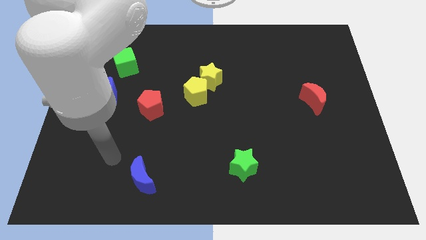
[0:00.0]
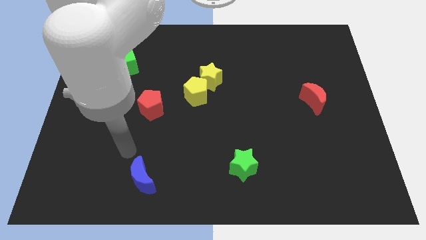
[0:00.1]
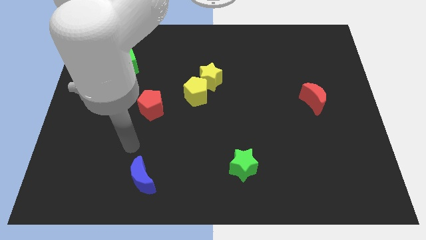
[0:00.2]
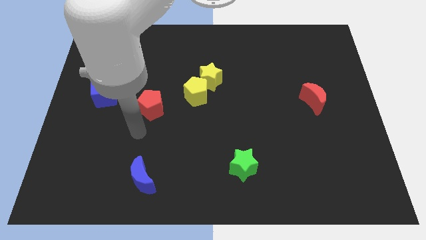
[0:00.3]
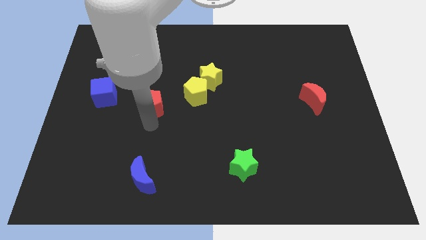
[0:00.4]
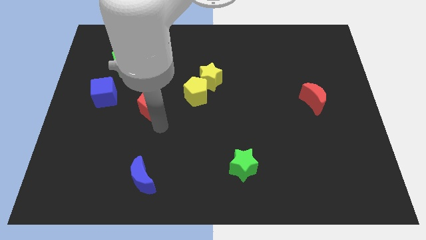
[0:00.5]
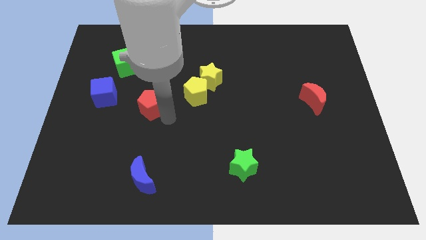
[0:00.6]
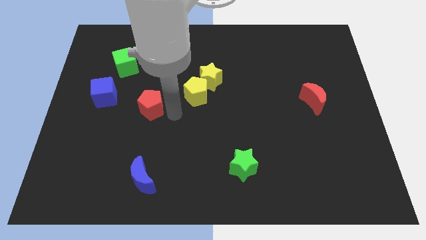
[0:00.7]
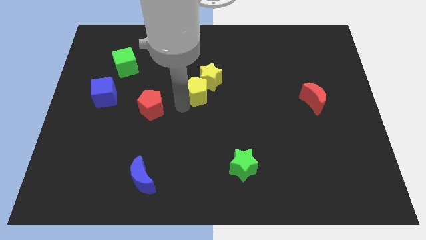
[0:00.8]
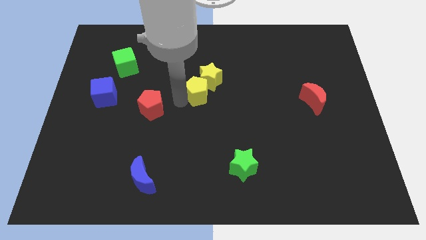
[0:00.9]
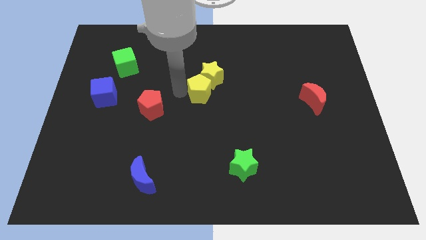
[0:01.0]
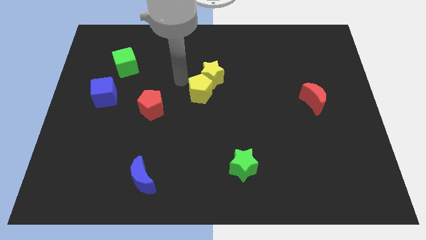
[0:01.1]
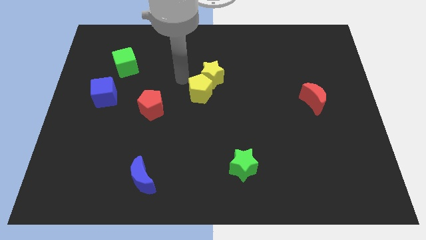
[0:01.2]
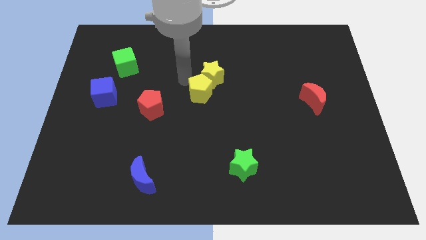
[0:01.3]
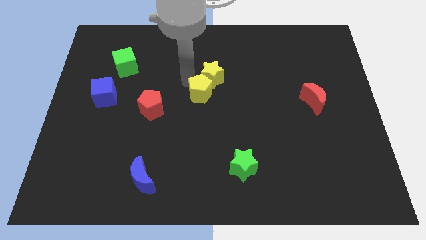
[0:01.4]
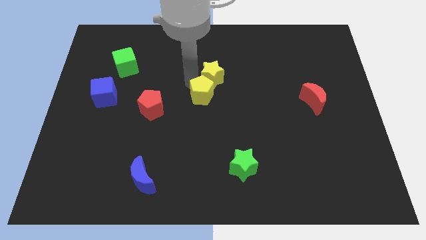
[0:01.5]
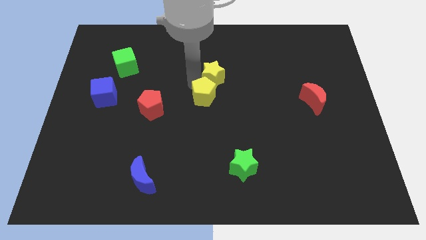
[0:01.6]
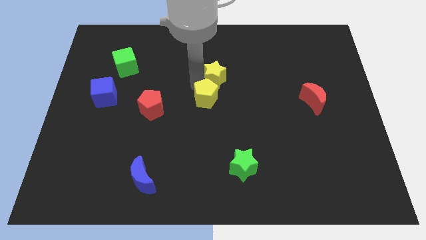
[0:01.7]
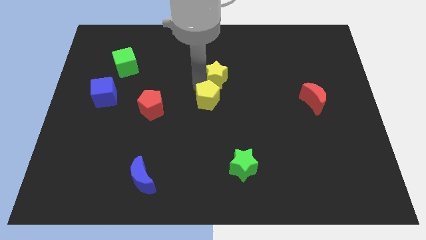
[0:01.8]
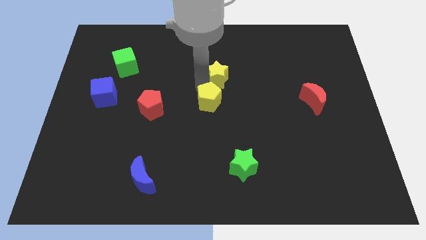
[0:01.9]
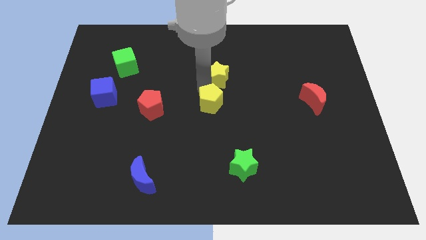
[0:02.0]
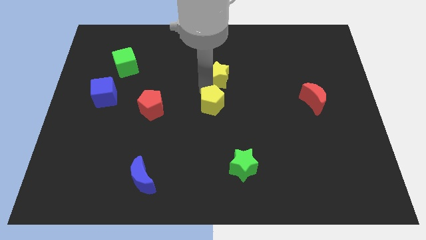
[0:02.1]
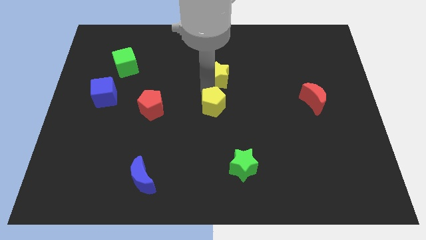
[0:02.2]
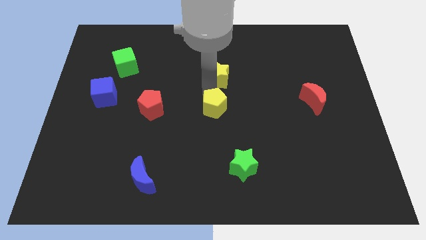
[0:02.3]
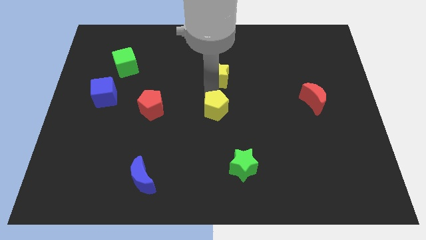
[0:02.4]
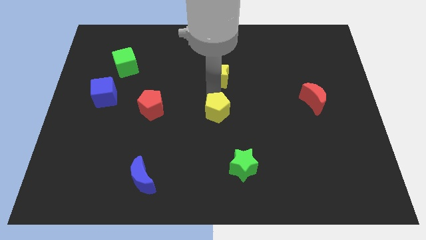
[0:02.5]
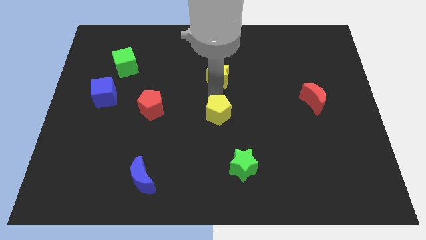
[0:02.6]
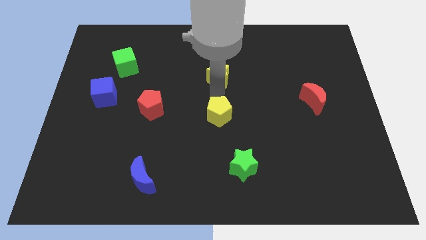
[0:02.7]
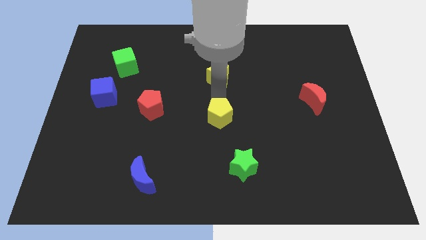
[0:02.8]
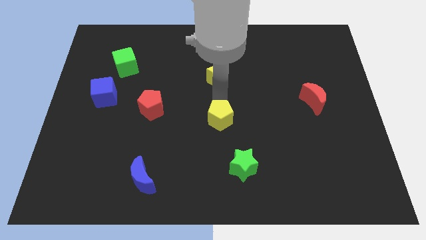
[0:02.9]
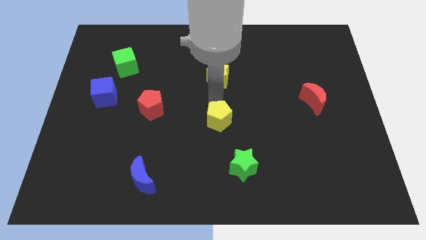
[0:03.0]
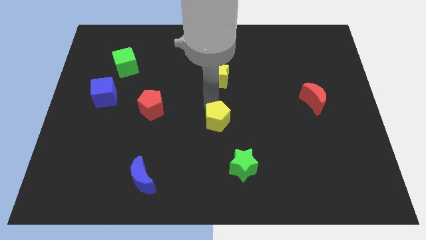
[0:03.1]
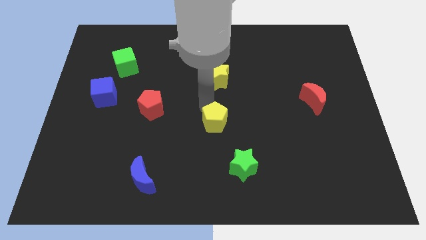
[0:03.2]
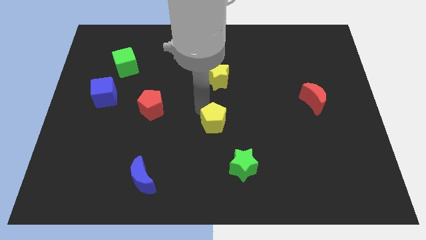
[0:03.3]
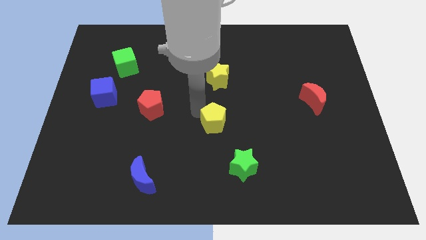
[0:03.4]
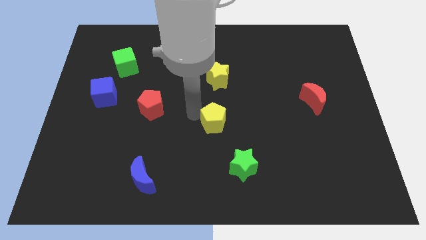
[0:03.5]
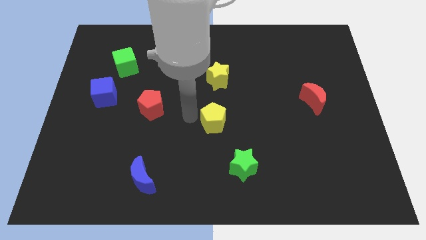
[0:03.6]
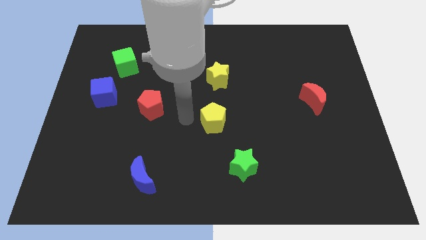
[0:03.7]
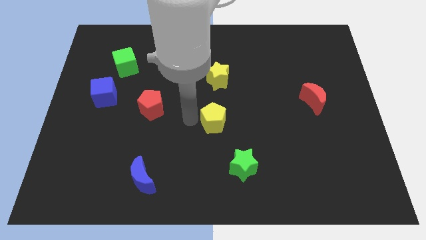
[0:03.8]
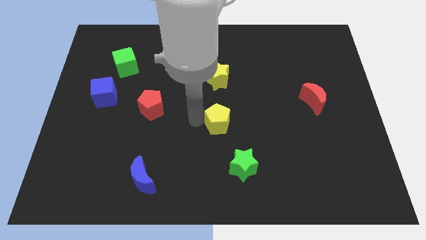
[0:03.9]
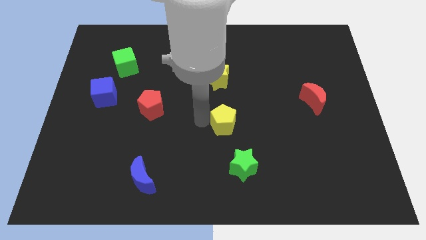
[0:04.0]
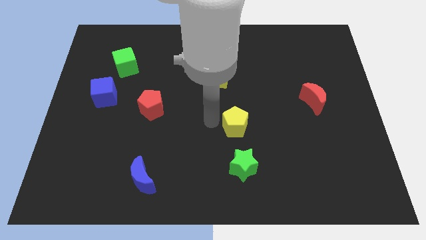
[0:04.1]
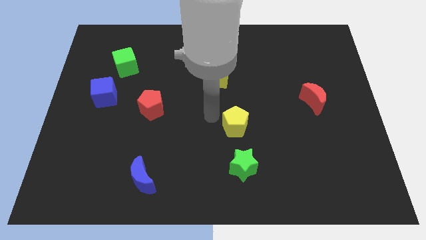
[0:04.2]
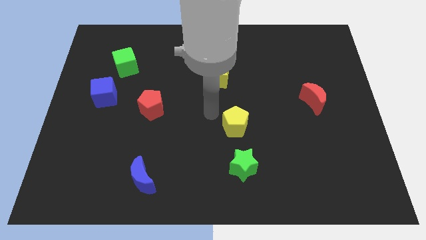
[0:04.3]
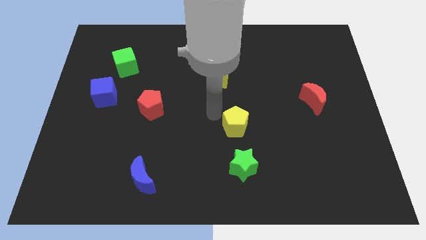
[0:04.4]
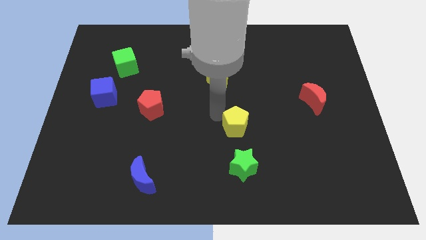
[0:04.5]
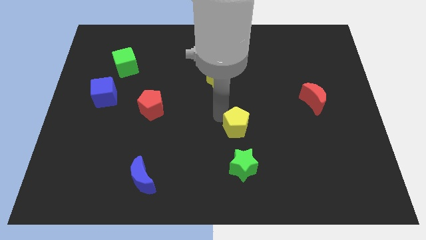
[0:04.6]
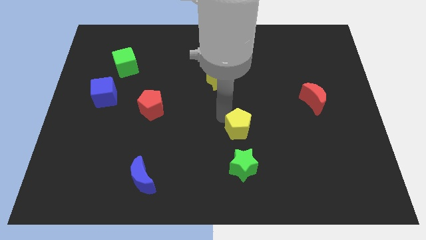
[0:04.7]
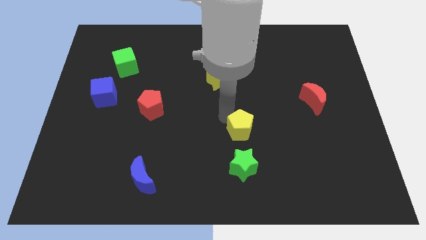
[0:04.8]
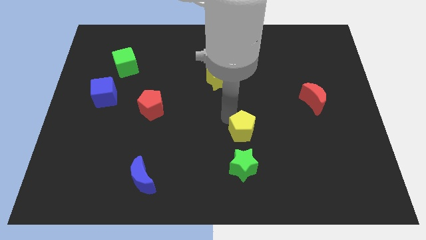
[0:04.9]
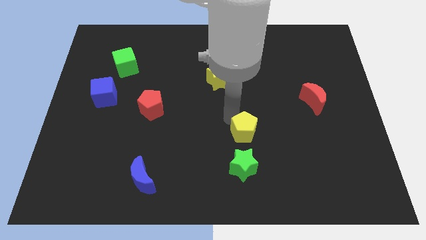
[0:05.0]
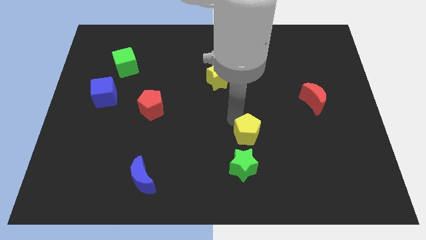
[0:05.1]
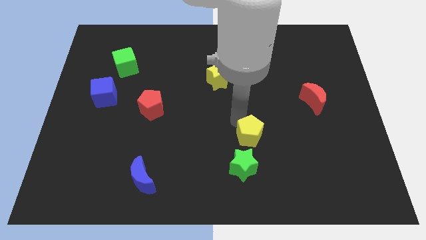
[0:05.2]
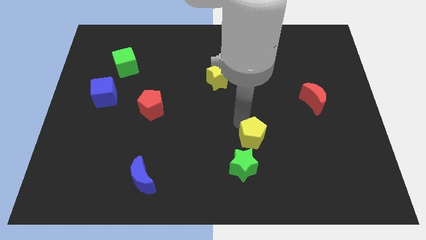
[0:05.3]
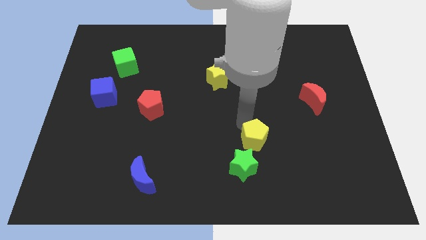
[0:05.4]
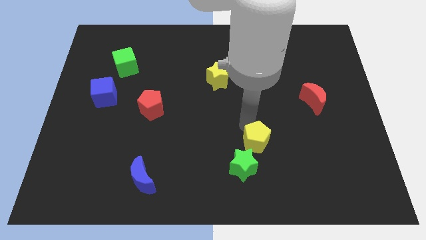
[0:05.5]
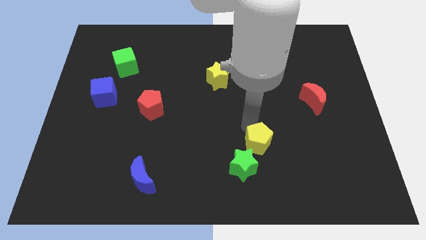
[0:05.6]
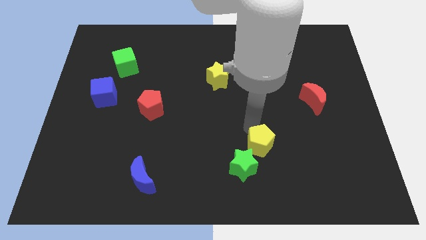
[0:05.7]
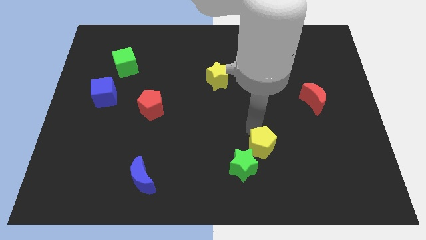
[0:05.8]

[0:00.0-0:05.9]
move the yellow pentagon right of the green star

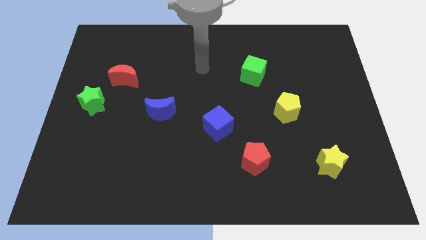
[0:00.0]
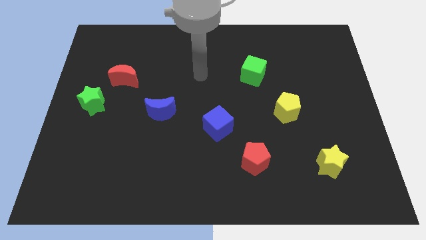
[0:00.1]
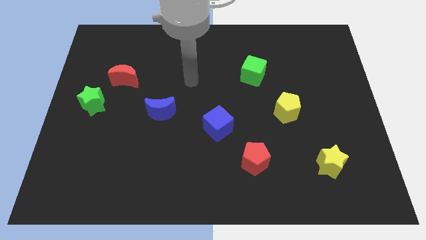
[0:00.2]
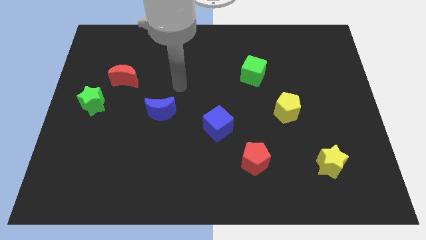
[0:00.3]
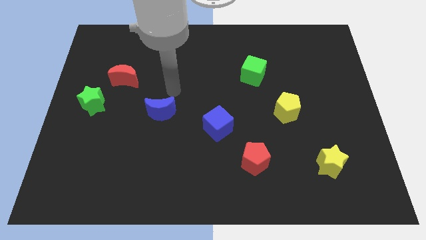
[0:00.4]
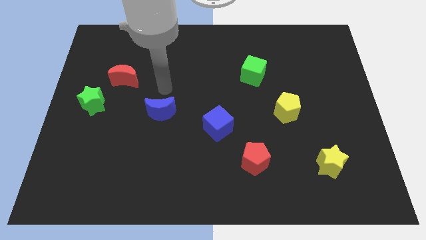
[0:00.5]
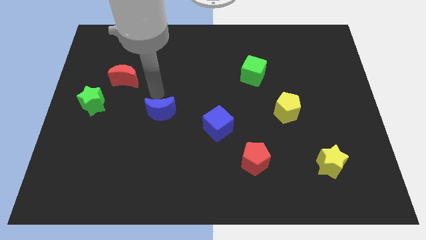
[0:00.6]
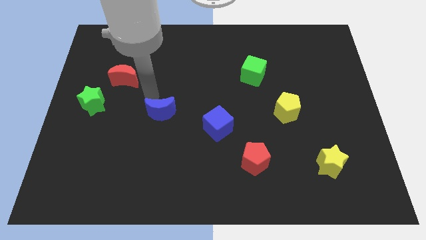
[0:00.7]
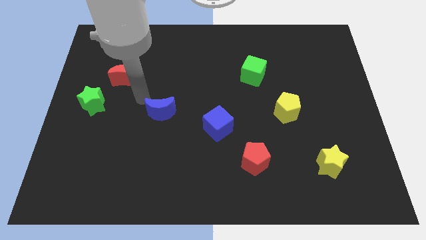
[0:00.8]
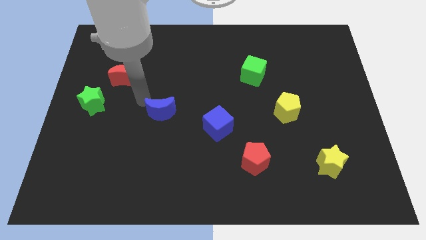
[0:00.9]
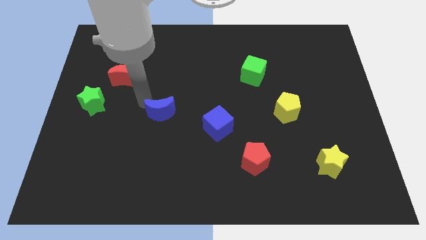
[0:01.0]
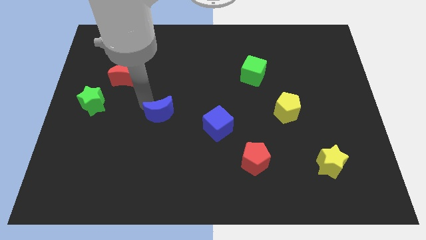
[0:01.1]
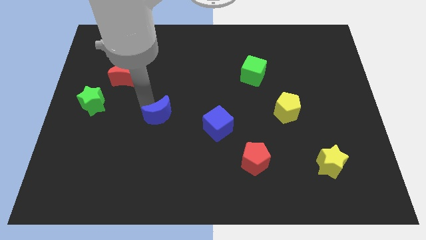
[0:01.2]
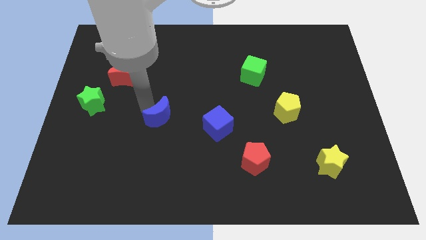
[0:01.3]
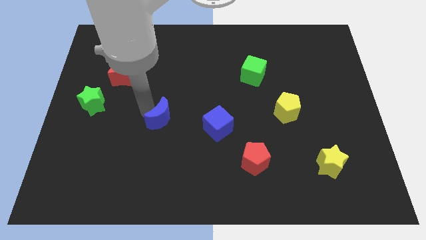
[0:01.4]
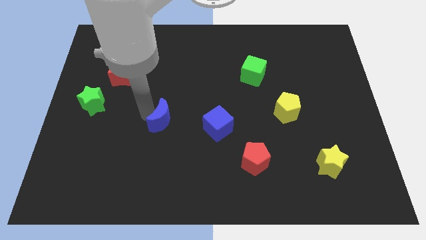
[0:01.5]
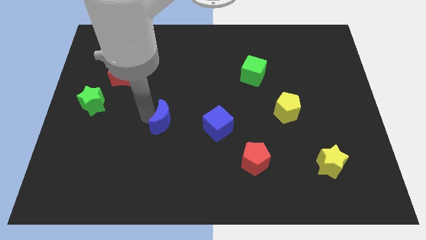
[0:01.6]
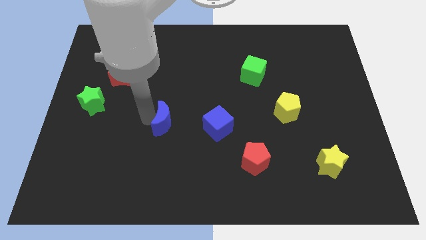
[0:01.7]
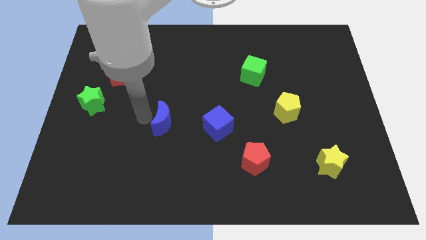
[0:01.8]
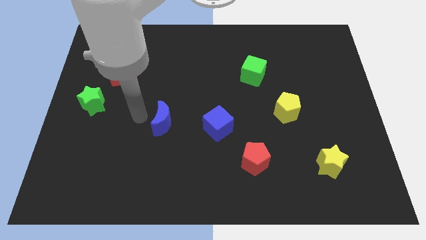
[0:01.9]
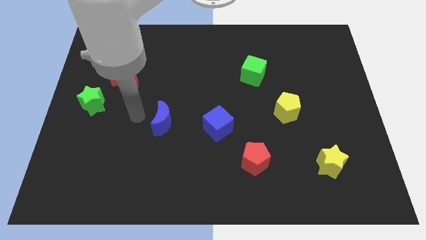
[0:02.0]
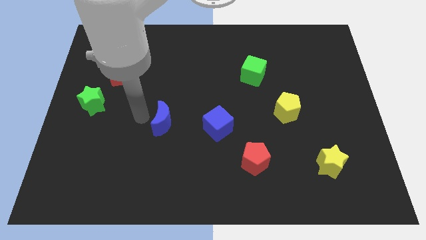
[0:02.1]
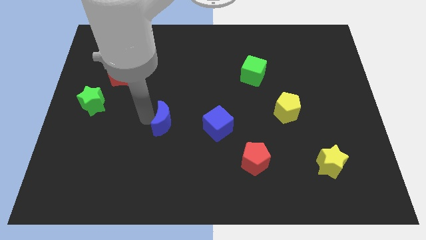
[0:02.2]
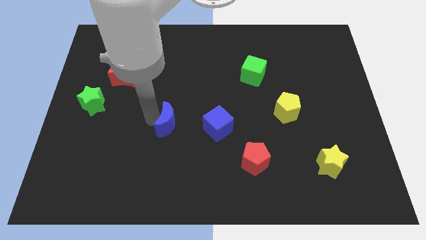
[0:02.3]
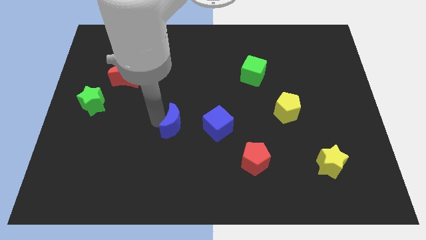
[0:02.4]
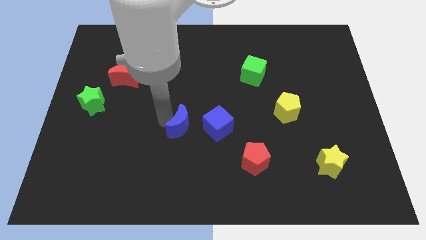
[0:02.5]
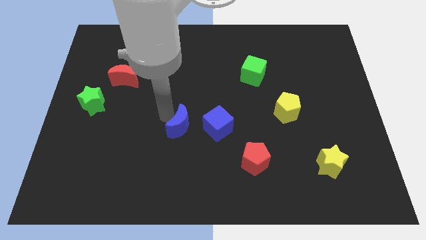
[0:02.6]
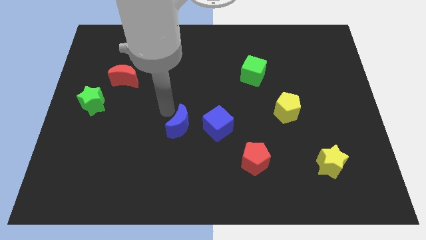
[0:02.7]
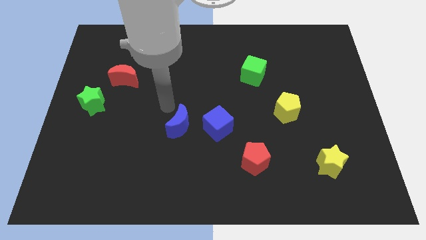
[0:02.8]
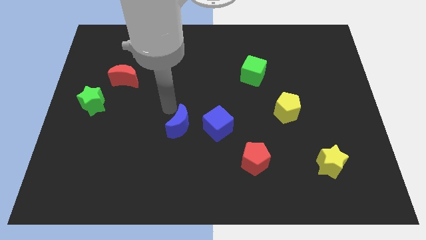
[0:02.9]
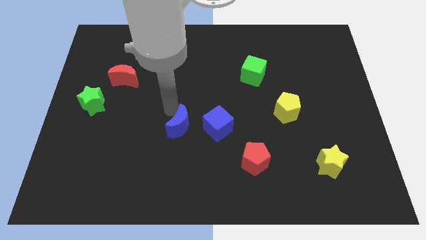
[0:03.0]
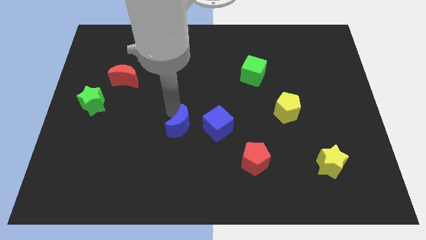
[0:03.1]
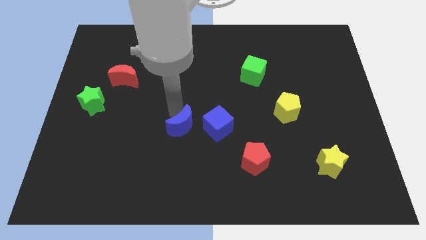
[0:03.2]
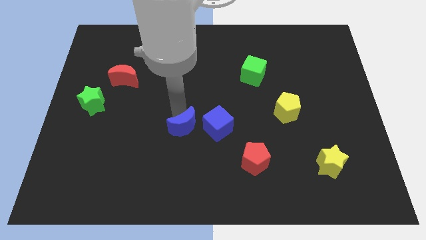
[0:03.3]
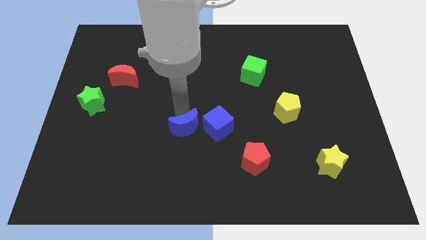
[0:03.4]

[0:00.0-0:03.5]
slide the blue moon to the bottom left of the blue cube
